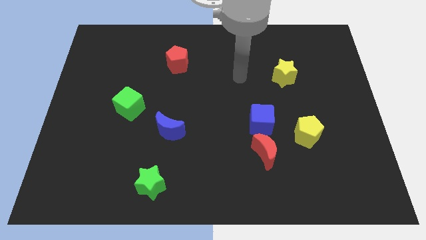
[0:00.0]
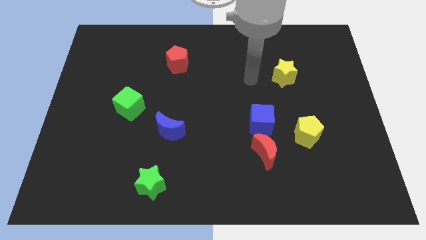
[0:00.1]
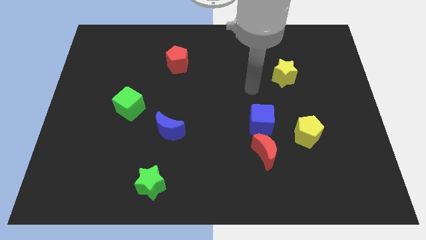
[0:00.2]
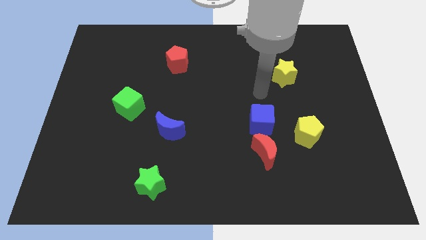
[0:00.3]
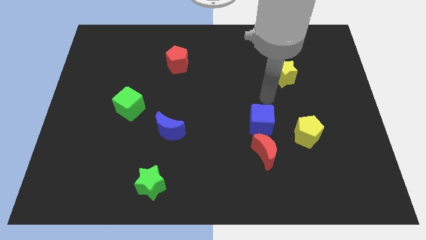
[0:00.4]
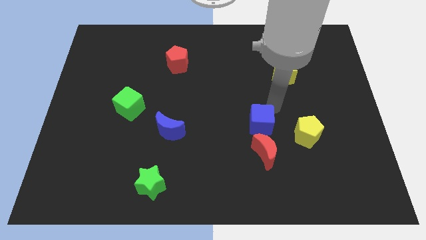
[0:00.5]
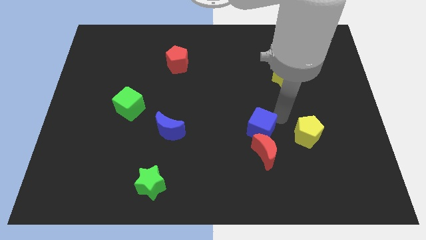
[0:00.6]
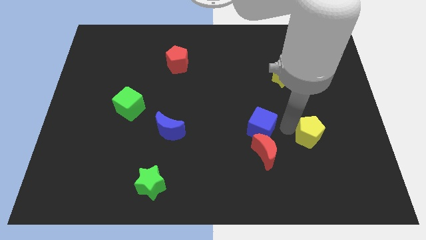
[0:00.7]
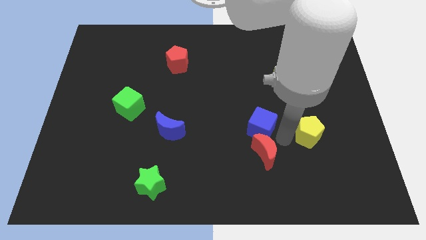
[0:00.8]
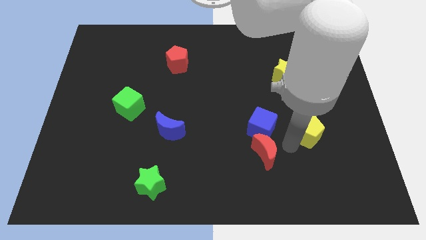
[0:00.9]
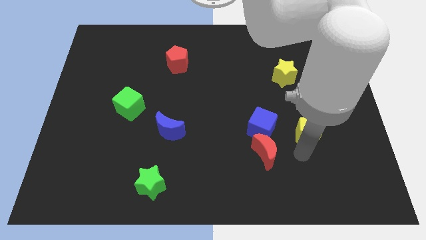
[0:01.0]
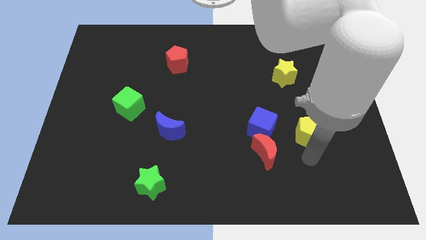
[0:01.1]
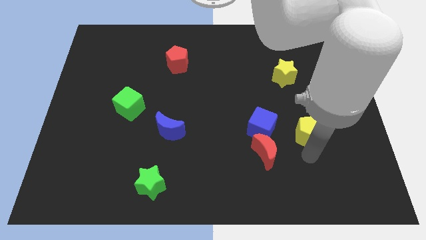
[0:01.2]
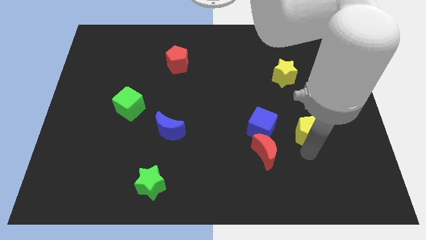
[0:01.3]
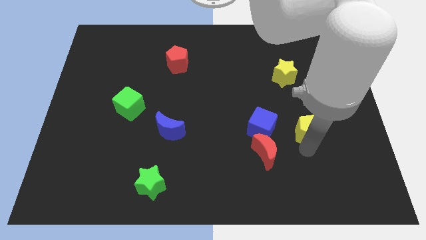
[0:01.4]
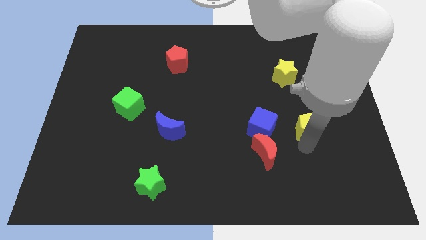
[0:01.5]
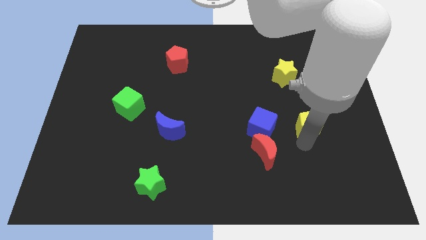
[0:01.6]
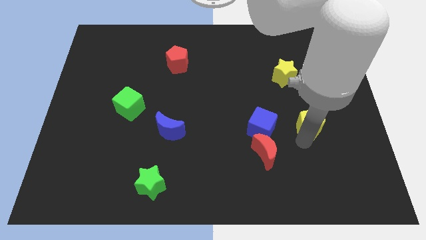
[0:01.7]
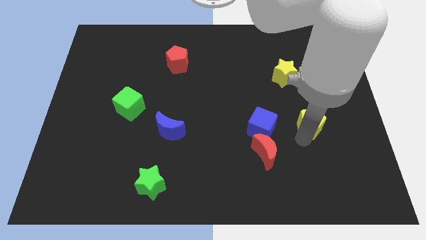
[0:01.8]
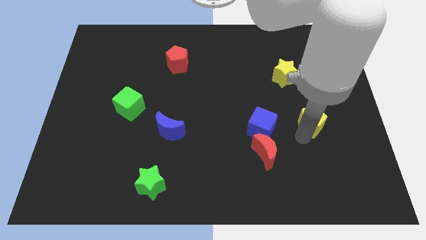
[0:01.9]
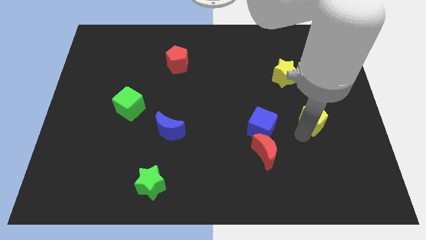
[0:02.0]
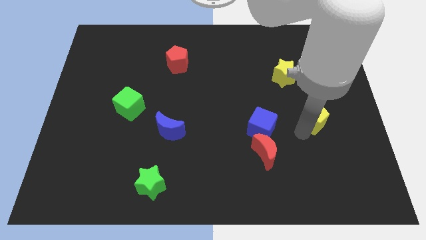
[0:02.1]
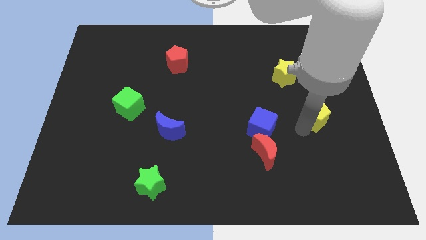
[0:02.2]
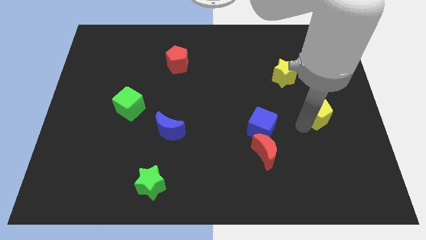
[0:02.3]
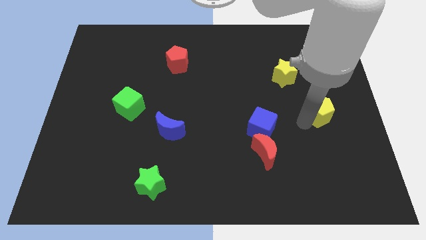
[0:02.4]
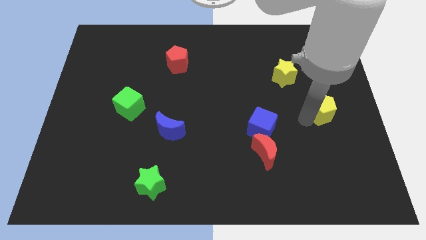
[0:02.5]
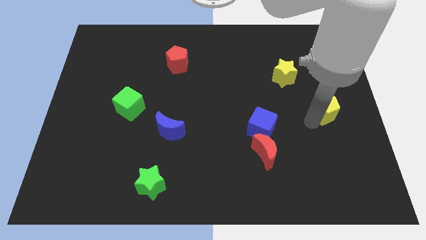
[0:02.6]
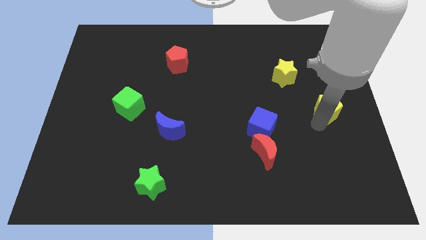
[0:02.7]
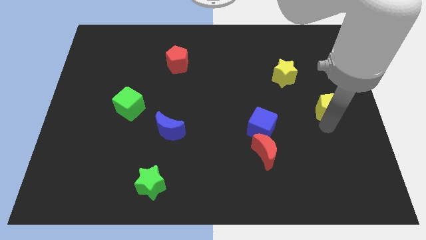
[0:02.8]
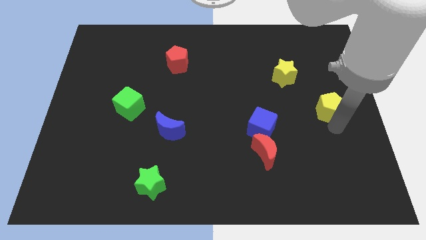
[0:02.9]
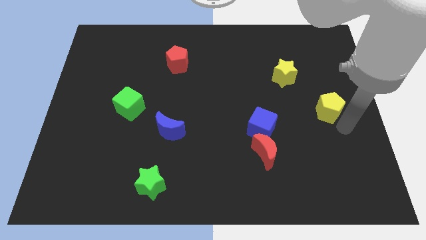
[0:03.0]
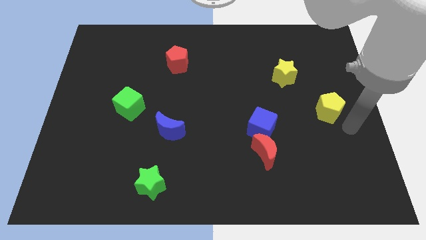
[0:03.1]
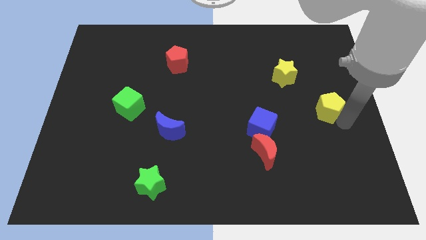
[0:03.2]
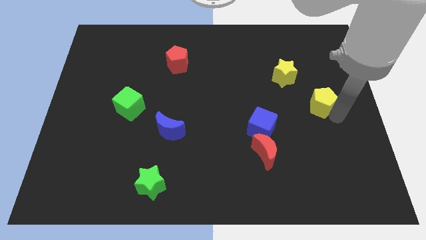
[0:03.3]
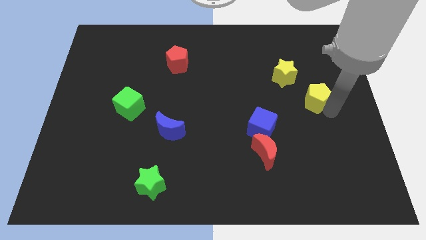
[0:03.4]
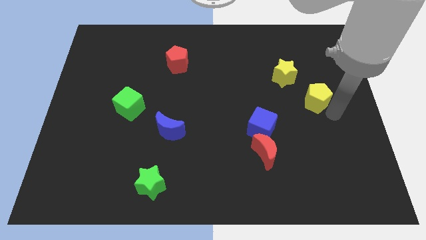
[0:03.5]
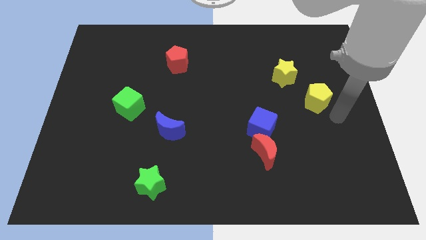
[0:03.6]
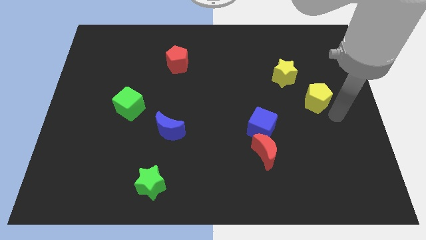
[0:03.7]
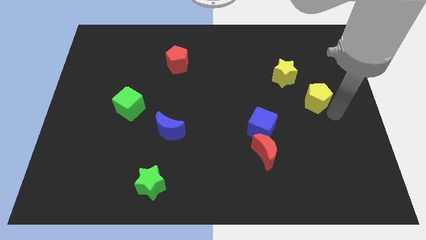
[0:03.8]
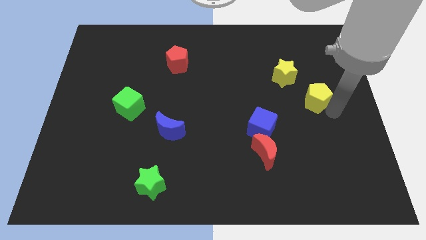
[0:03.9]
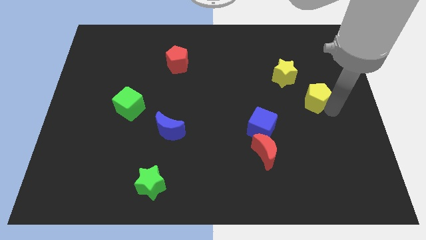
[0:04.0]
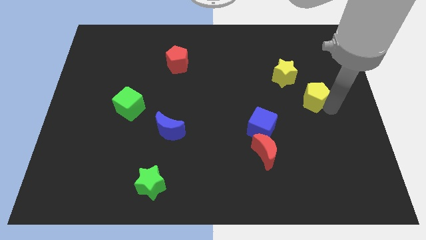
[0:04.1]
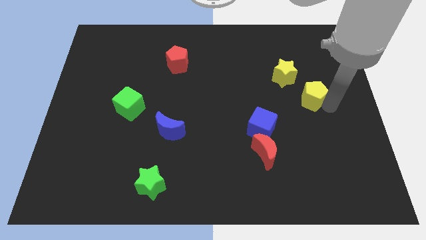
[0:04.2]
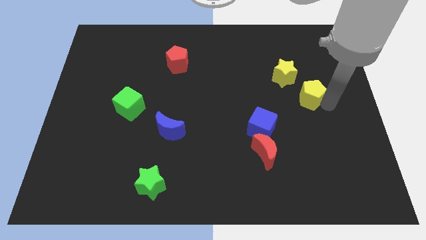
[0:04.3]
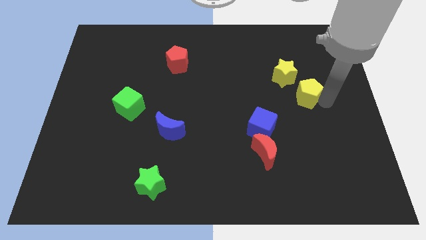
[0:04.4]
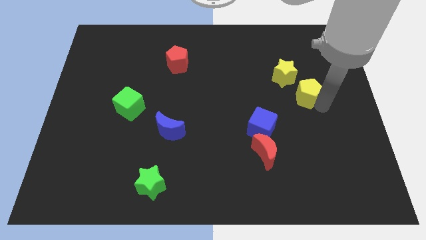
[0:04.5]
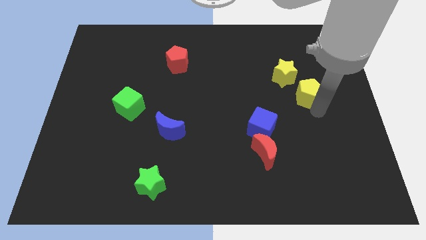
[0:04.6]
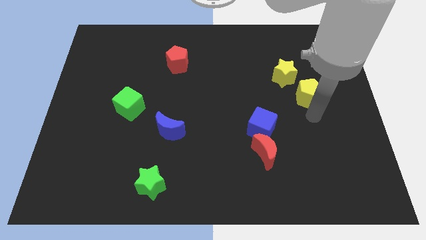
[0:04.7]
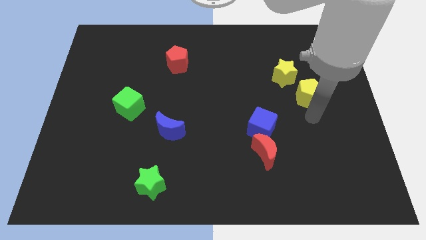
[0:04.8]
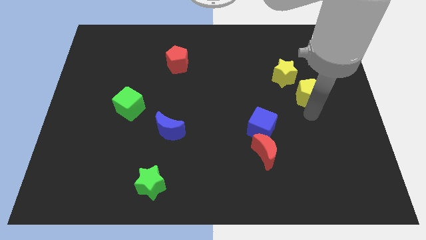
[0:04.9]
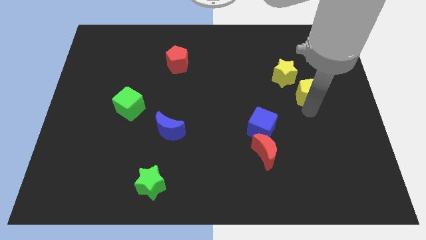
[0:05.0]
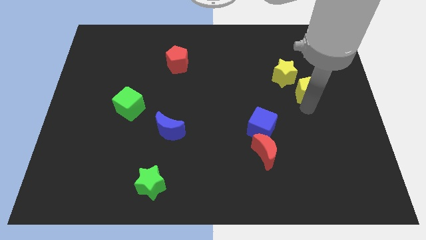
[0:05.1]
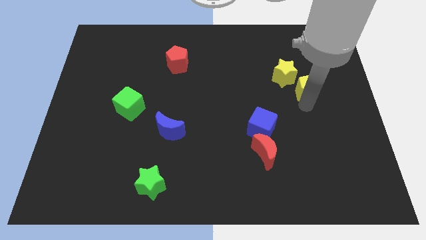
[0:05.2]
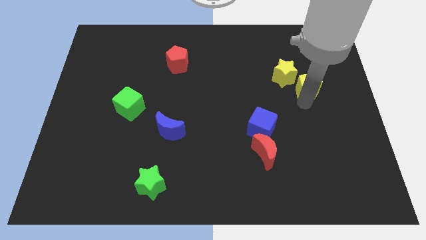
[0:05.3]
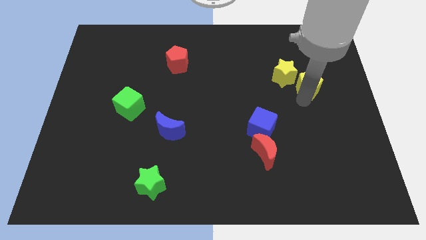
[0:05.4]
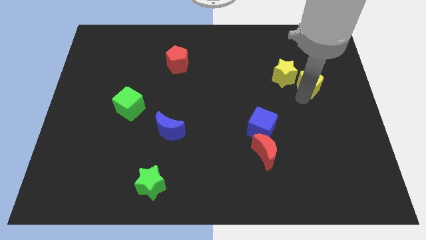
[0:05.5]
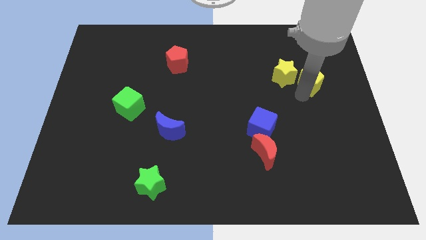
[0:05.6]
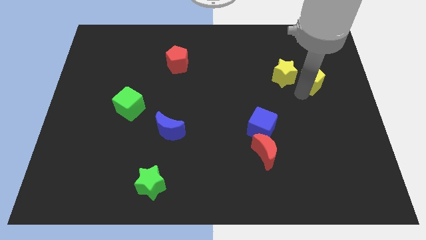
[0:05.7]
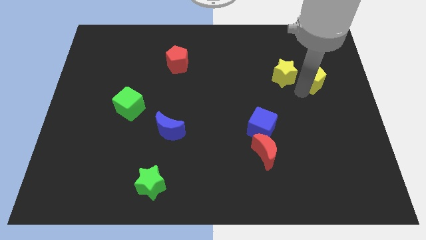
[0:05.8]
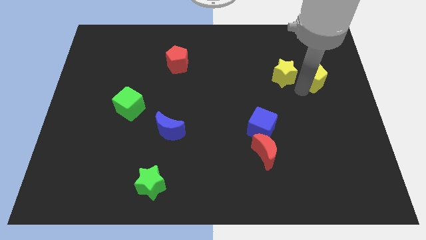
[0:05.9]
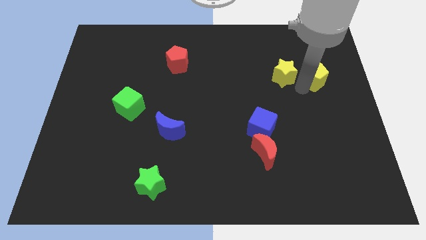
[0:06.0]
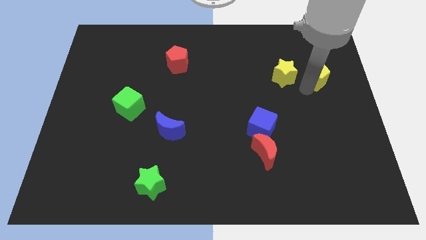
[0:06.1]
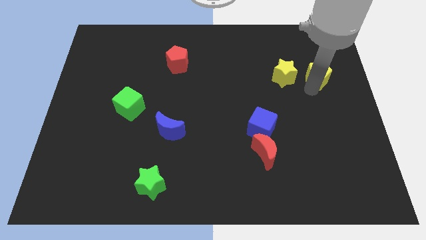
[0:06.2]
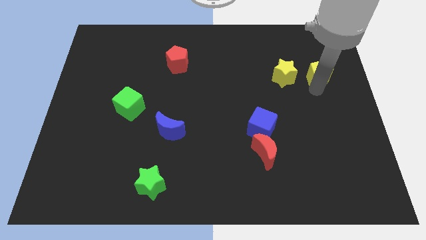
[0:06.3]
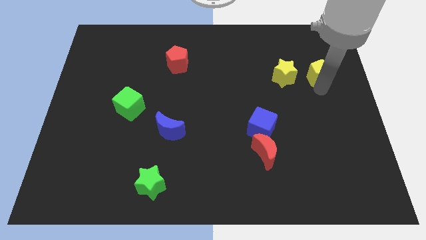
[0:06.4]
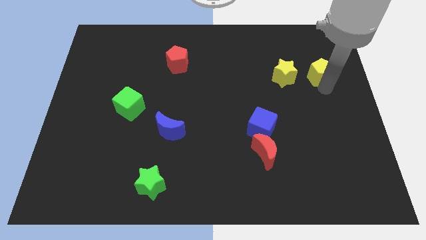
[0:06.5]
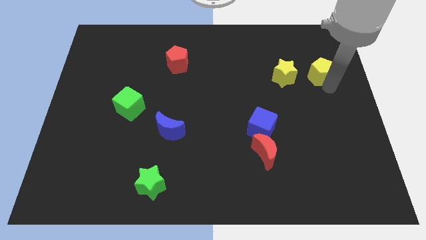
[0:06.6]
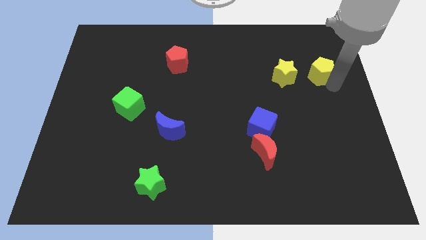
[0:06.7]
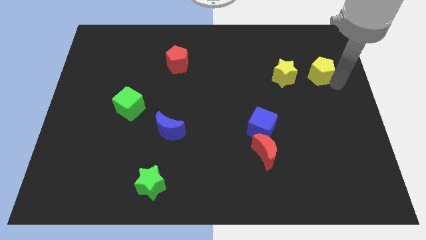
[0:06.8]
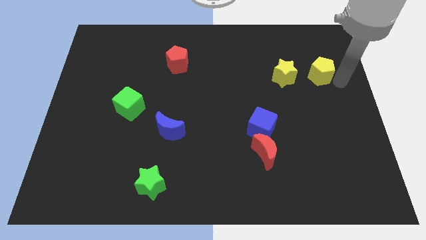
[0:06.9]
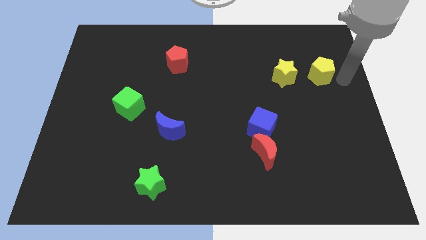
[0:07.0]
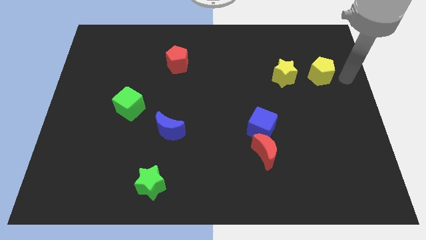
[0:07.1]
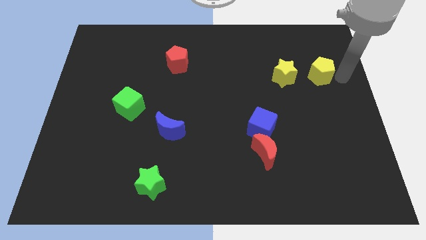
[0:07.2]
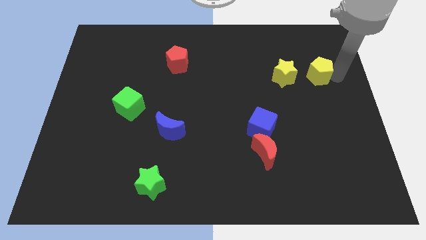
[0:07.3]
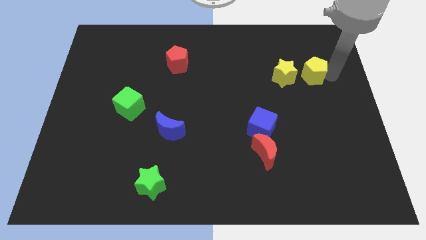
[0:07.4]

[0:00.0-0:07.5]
push the yellow pentagon to the top right of the yellow star
